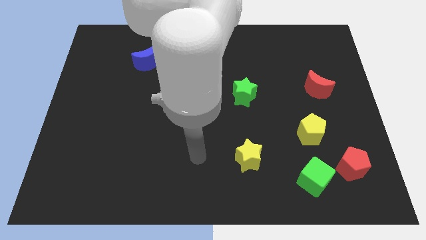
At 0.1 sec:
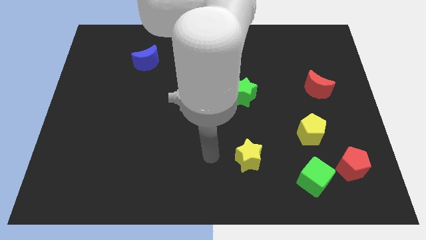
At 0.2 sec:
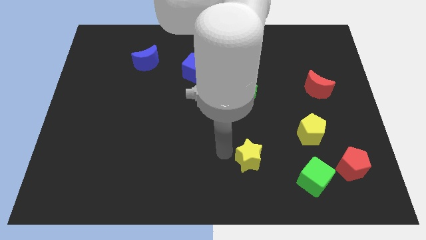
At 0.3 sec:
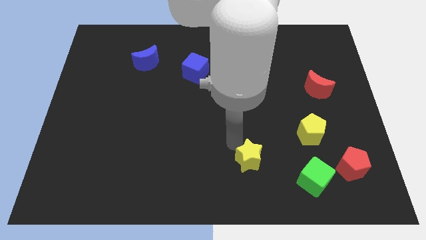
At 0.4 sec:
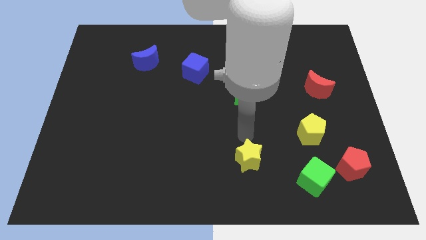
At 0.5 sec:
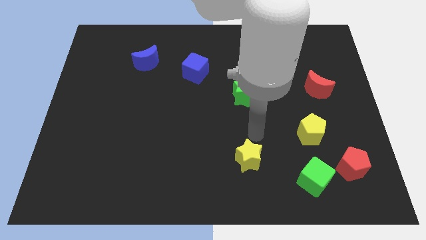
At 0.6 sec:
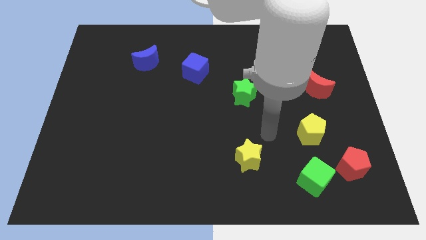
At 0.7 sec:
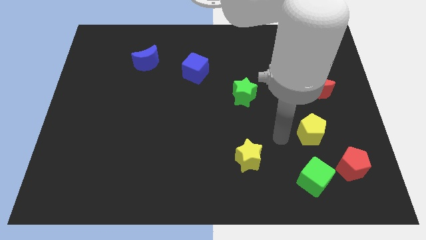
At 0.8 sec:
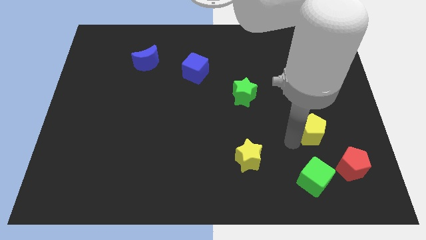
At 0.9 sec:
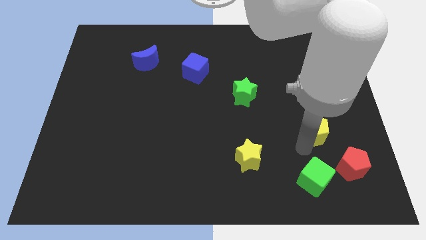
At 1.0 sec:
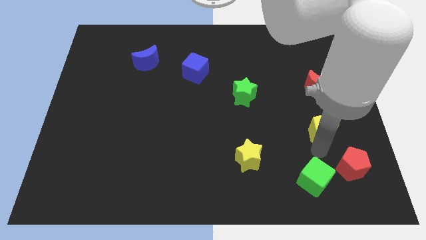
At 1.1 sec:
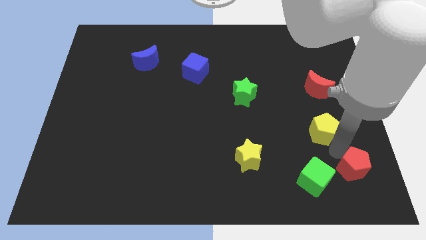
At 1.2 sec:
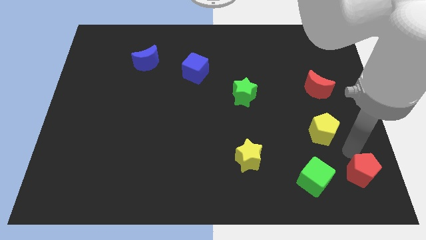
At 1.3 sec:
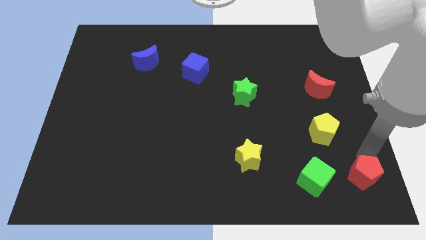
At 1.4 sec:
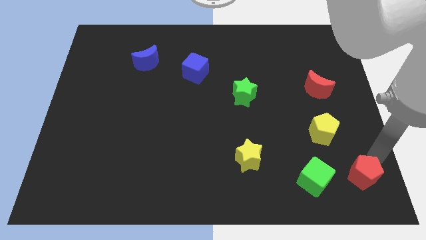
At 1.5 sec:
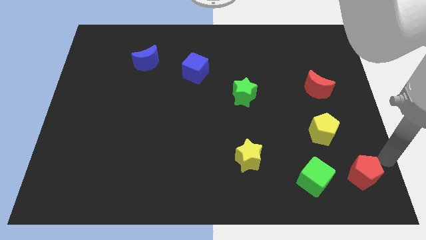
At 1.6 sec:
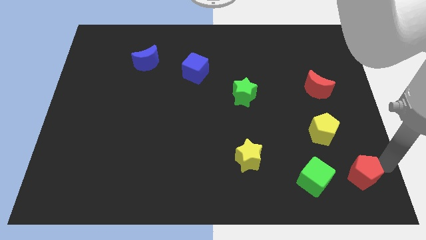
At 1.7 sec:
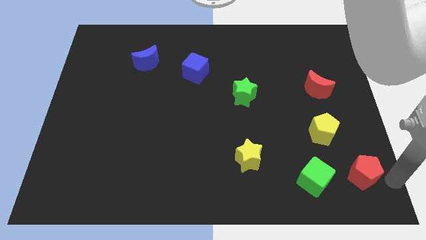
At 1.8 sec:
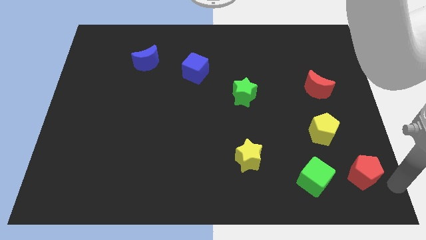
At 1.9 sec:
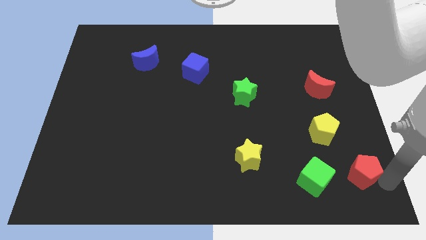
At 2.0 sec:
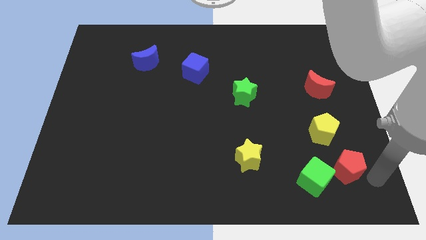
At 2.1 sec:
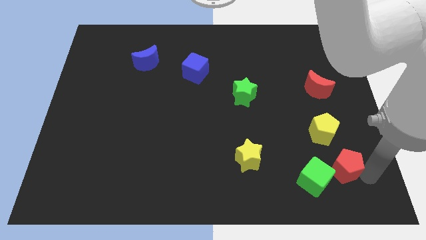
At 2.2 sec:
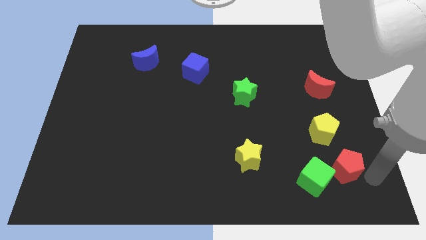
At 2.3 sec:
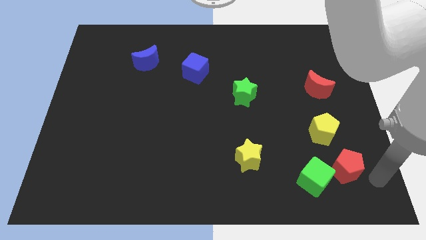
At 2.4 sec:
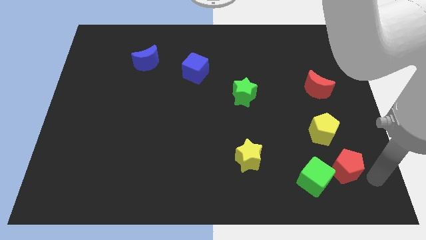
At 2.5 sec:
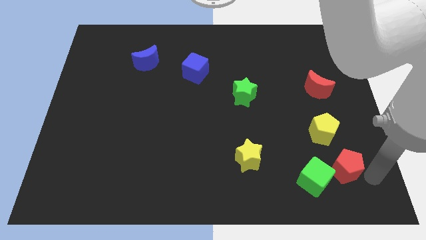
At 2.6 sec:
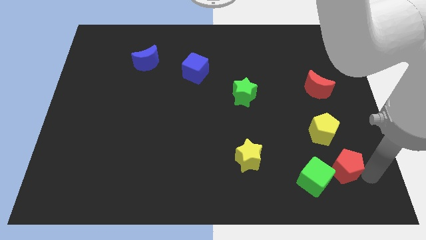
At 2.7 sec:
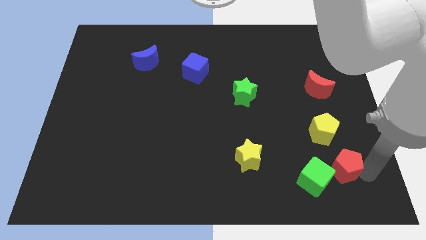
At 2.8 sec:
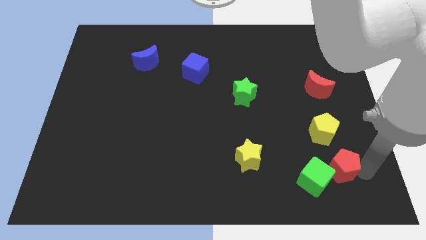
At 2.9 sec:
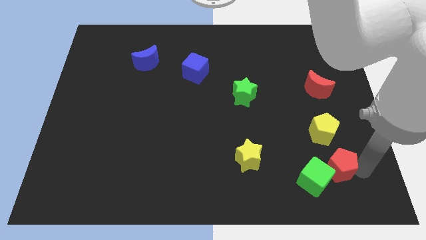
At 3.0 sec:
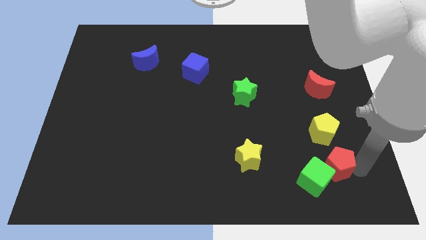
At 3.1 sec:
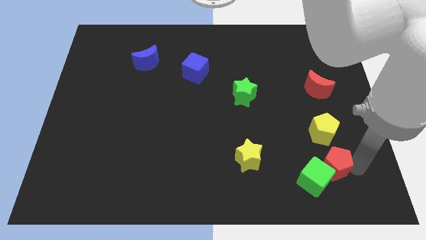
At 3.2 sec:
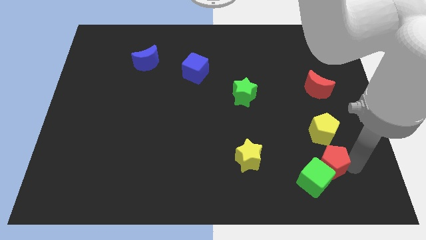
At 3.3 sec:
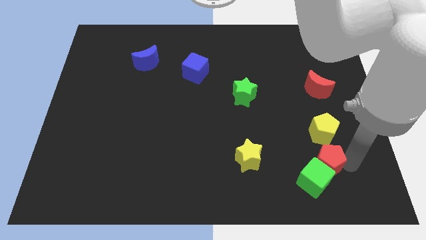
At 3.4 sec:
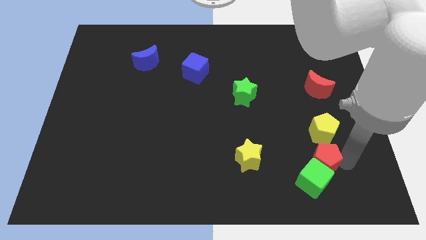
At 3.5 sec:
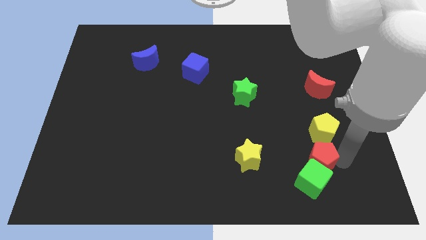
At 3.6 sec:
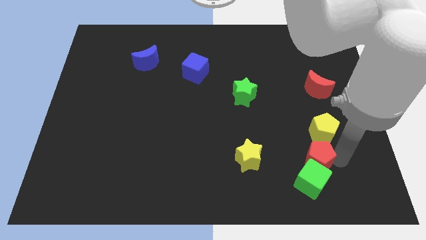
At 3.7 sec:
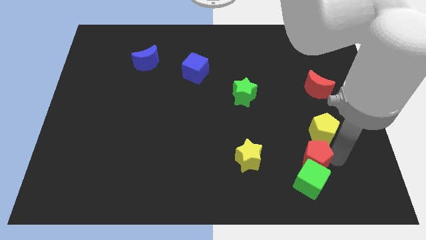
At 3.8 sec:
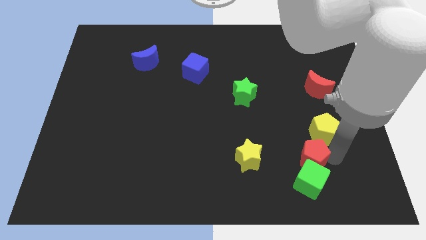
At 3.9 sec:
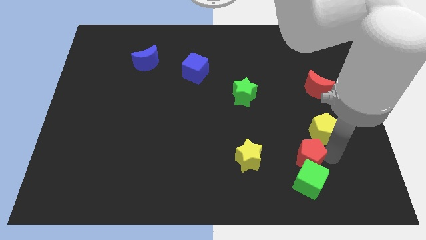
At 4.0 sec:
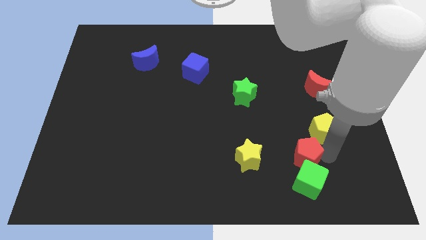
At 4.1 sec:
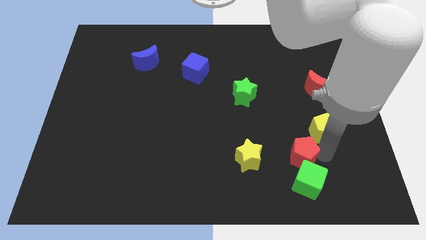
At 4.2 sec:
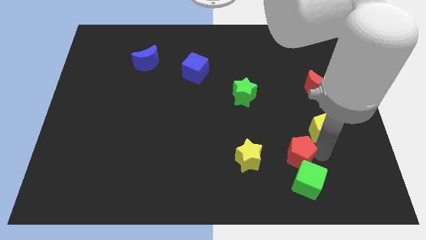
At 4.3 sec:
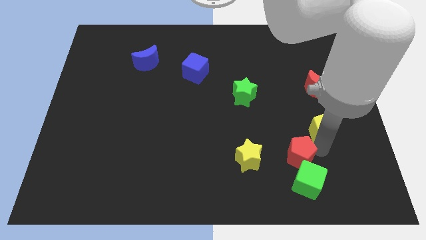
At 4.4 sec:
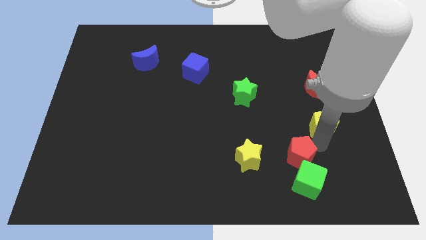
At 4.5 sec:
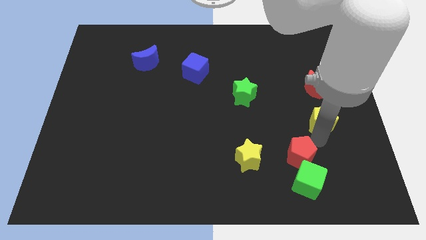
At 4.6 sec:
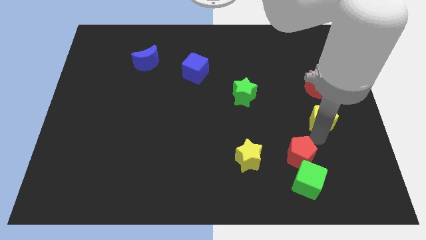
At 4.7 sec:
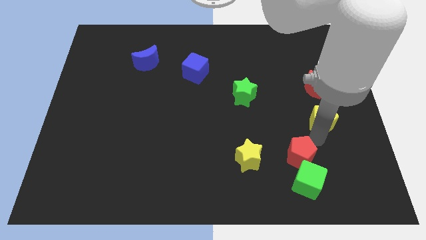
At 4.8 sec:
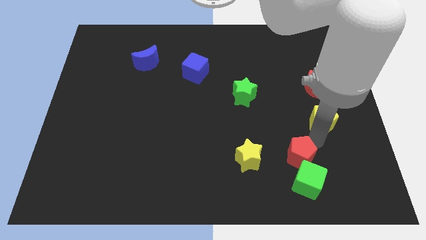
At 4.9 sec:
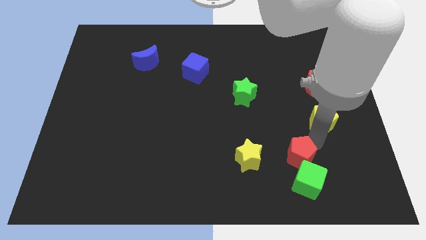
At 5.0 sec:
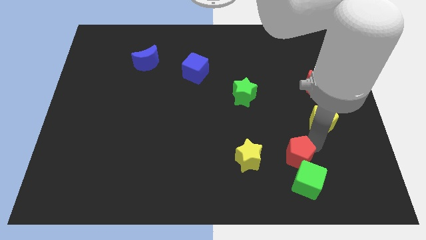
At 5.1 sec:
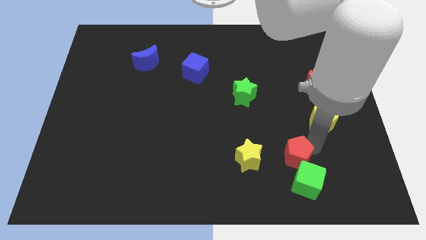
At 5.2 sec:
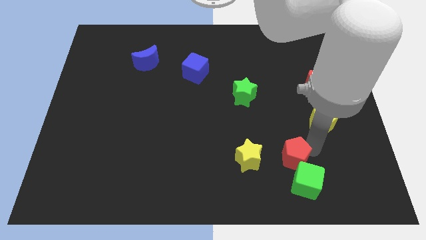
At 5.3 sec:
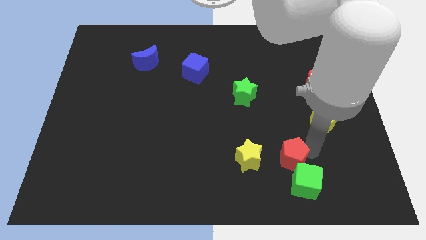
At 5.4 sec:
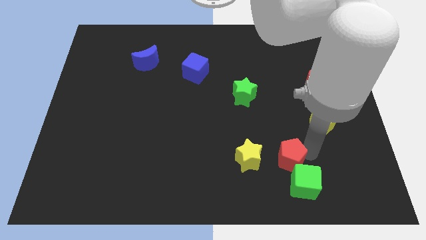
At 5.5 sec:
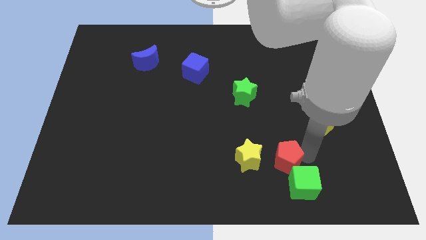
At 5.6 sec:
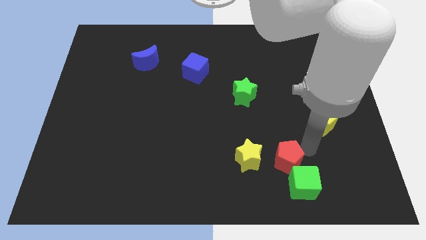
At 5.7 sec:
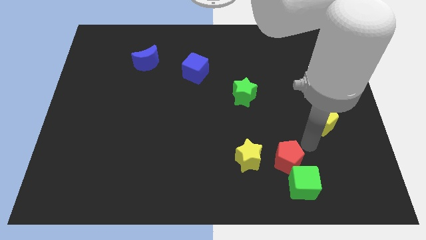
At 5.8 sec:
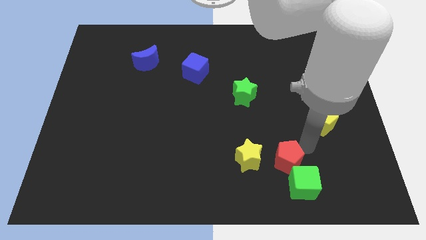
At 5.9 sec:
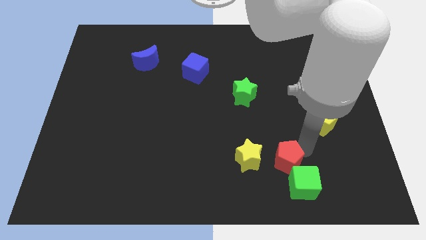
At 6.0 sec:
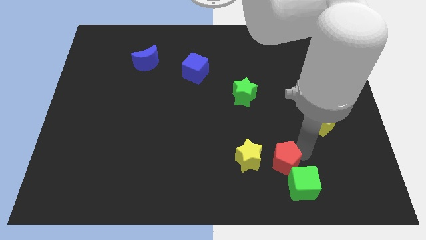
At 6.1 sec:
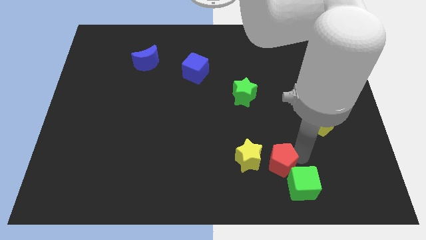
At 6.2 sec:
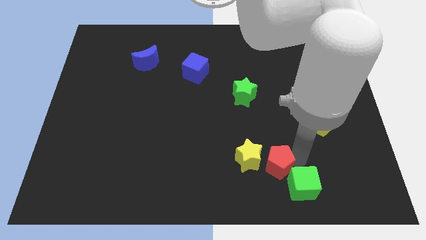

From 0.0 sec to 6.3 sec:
push the red pentagon just left of the green cube

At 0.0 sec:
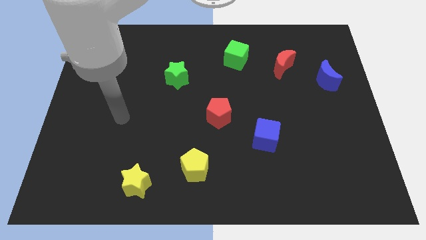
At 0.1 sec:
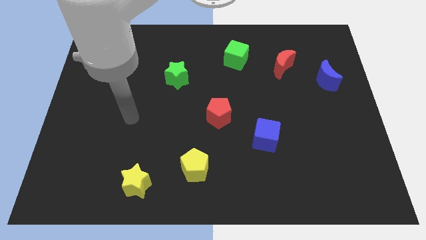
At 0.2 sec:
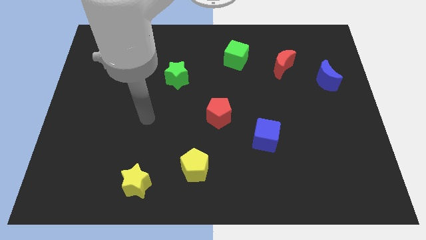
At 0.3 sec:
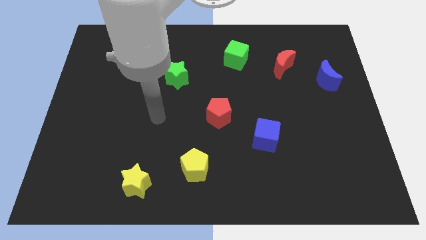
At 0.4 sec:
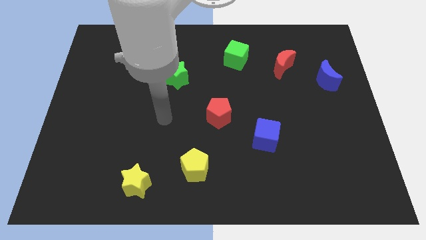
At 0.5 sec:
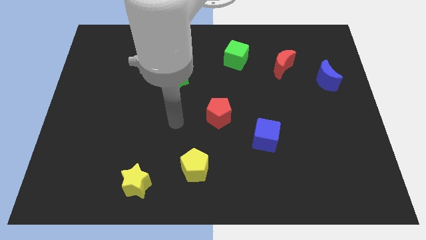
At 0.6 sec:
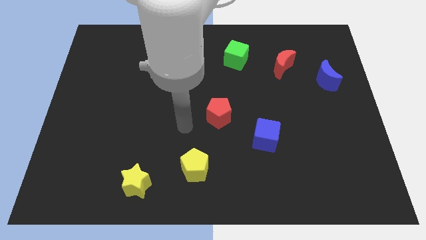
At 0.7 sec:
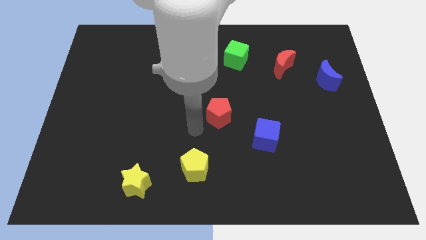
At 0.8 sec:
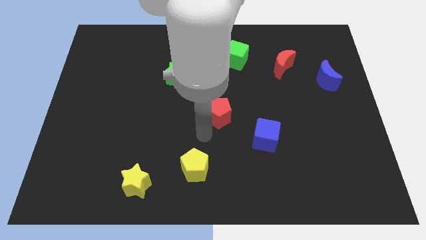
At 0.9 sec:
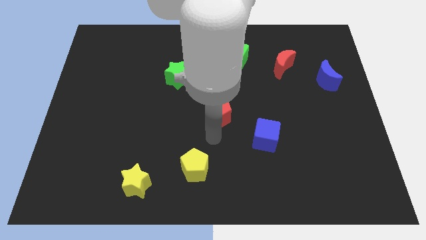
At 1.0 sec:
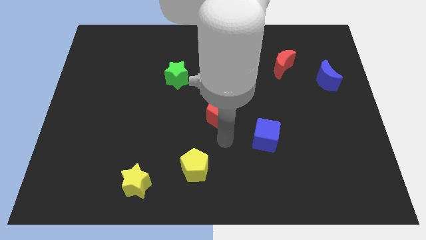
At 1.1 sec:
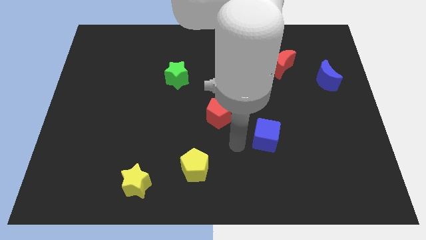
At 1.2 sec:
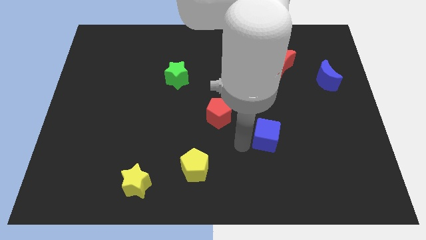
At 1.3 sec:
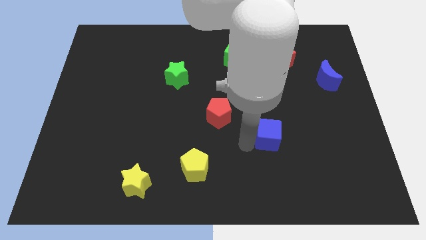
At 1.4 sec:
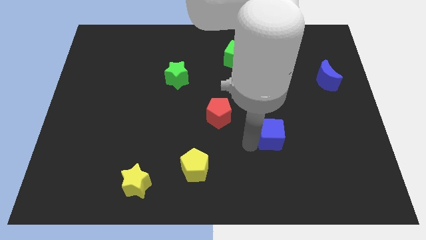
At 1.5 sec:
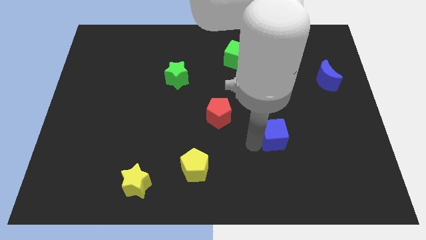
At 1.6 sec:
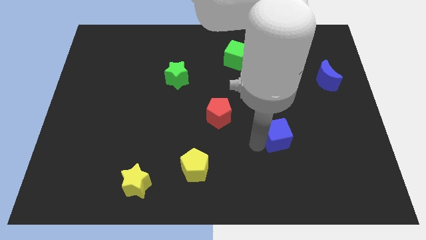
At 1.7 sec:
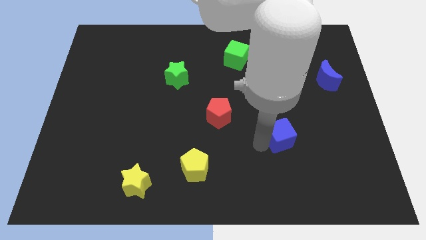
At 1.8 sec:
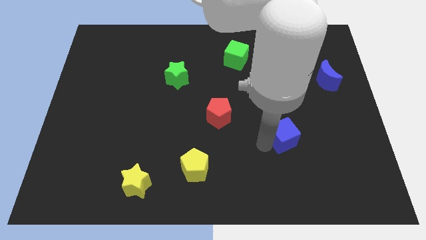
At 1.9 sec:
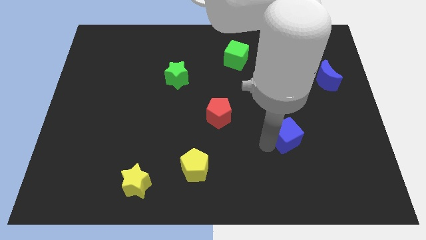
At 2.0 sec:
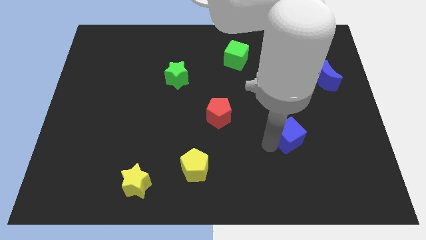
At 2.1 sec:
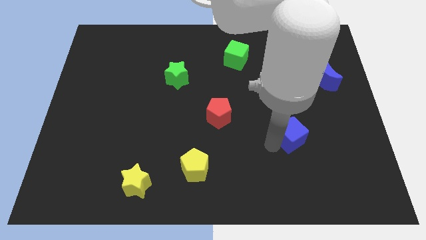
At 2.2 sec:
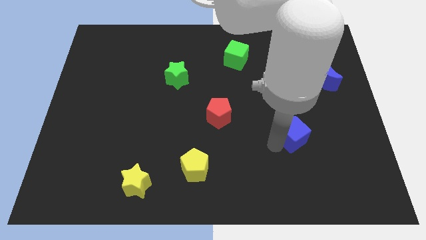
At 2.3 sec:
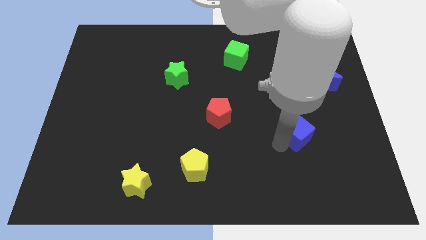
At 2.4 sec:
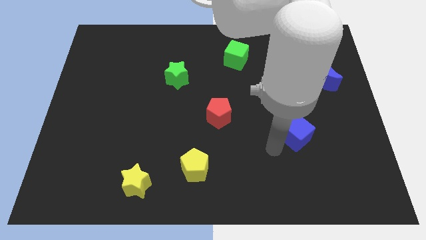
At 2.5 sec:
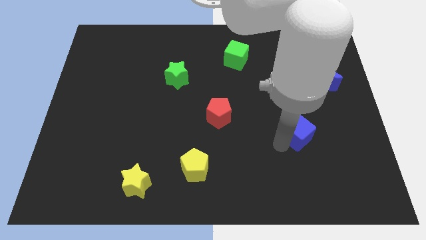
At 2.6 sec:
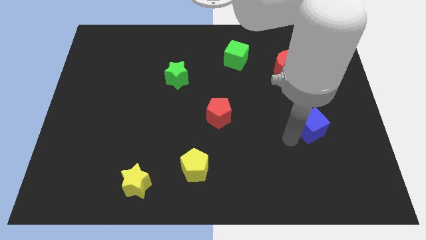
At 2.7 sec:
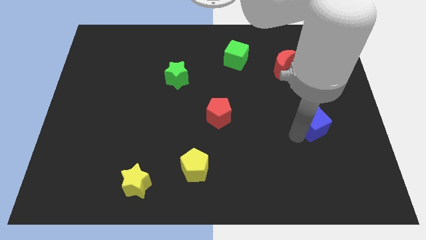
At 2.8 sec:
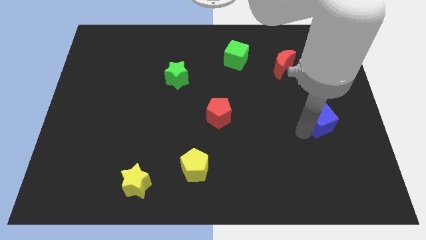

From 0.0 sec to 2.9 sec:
put the blue cube to the bottom side of the blue moon
